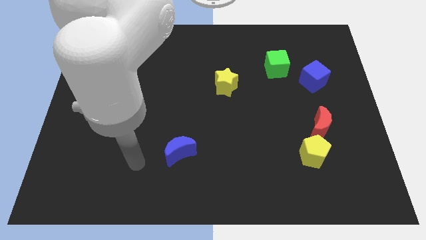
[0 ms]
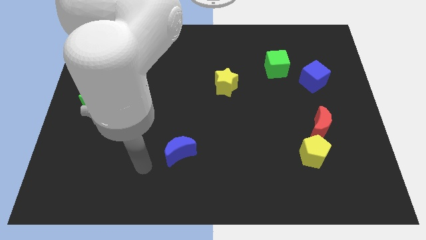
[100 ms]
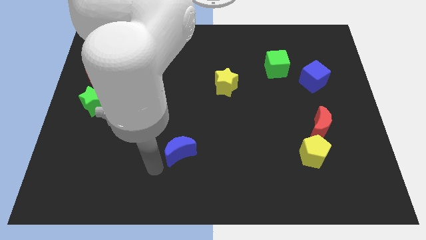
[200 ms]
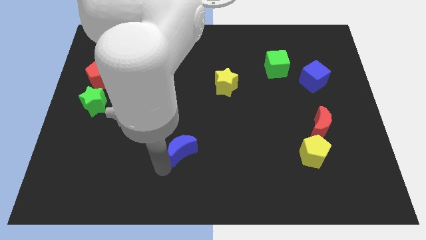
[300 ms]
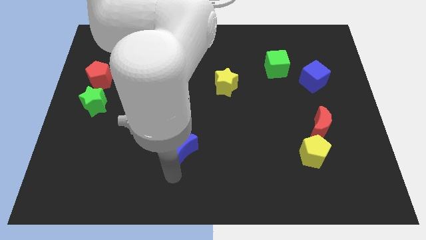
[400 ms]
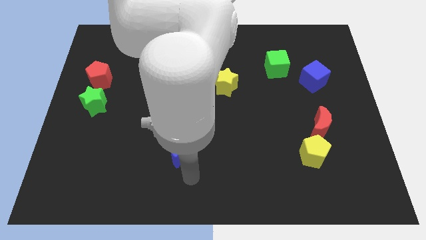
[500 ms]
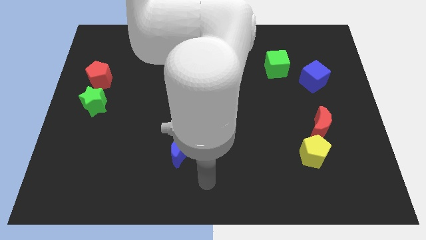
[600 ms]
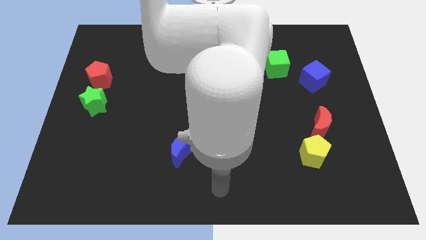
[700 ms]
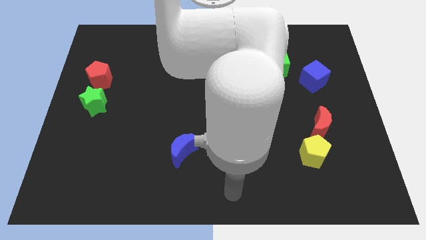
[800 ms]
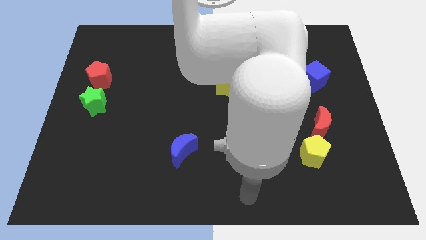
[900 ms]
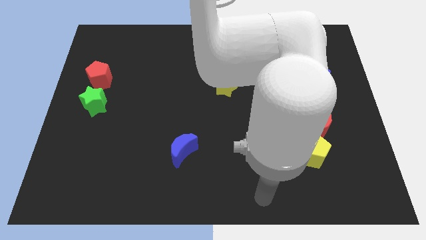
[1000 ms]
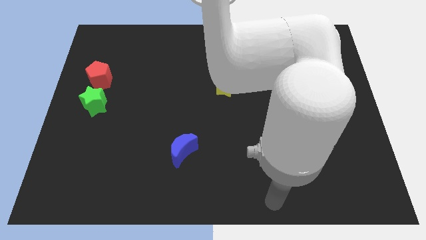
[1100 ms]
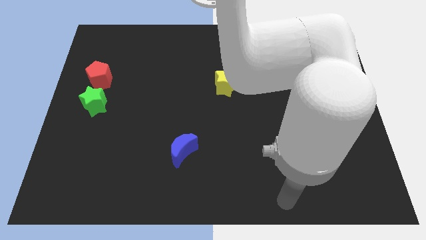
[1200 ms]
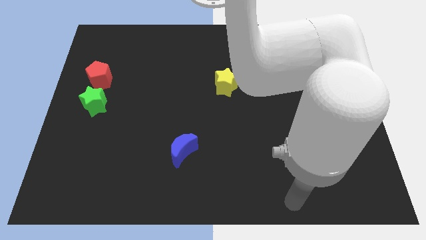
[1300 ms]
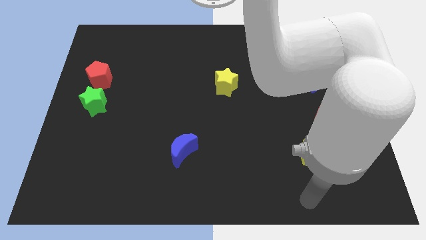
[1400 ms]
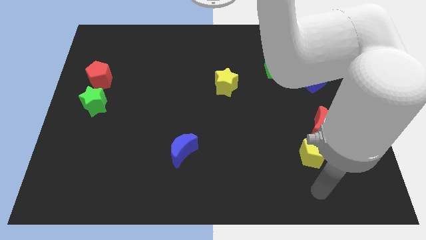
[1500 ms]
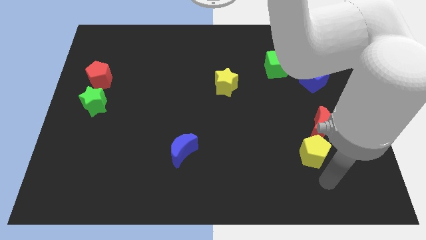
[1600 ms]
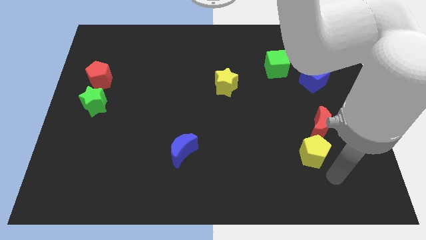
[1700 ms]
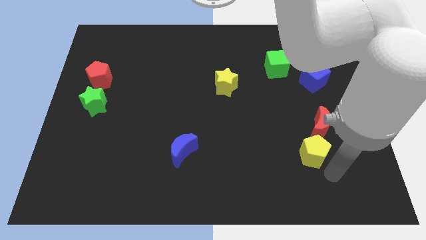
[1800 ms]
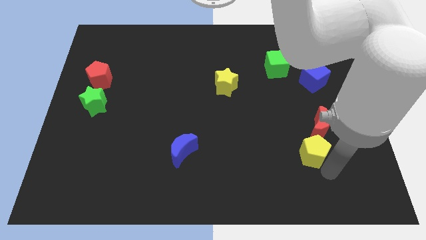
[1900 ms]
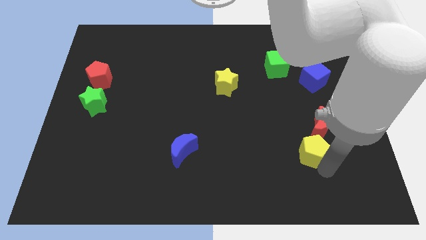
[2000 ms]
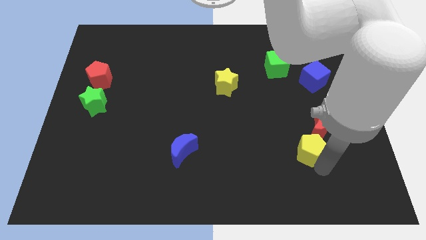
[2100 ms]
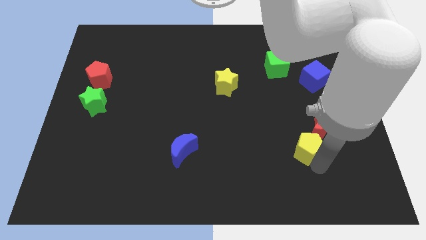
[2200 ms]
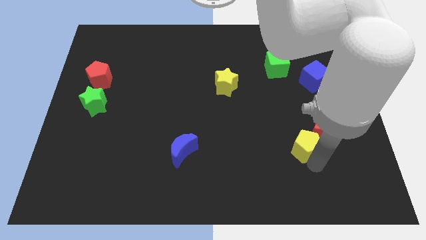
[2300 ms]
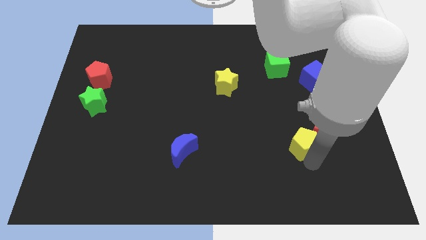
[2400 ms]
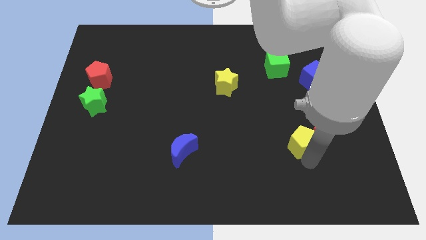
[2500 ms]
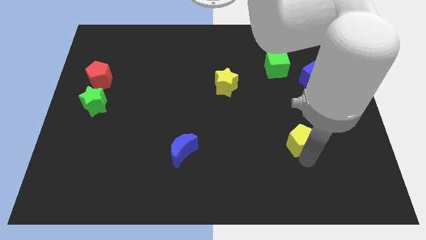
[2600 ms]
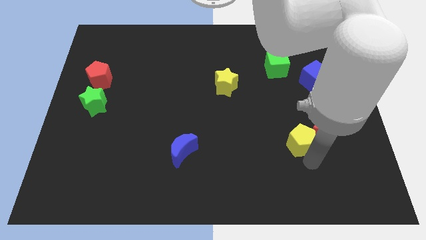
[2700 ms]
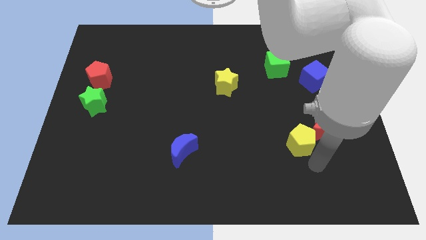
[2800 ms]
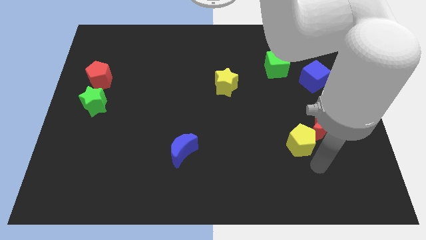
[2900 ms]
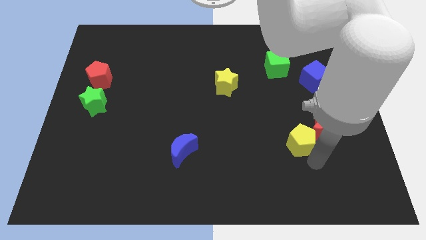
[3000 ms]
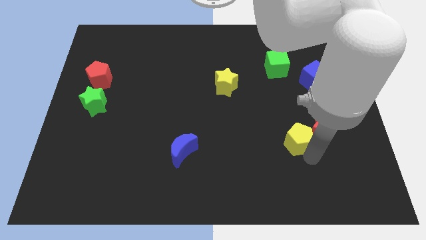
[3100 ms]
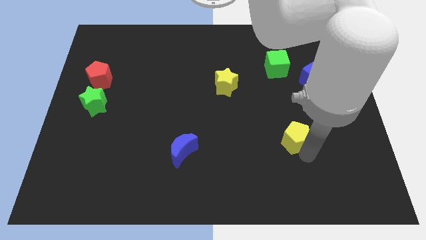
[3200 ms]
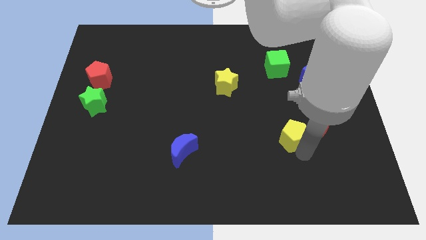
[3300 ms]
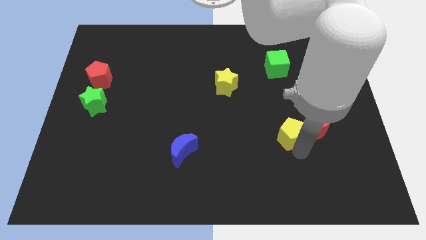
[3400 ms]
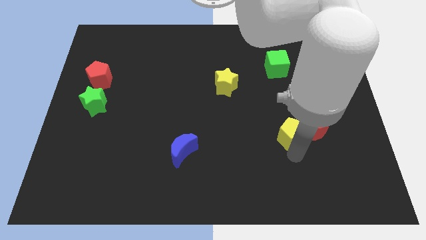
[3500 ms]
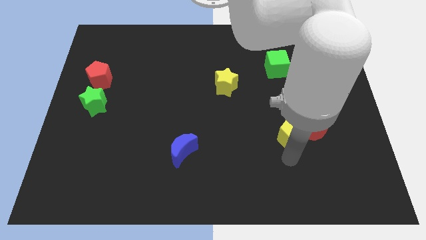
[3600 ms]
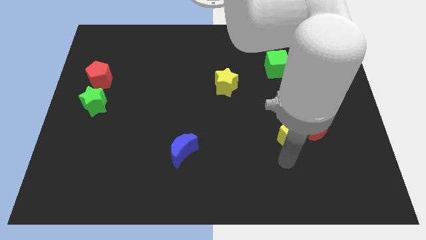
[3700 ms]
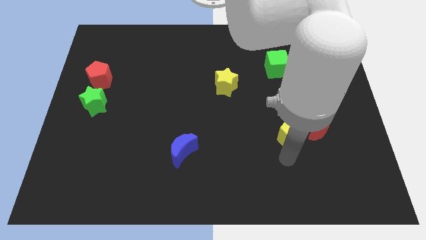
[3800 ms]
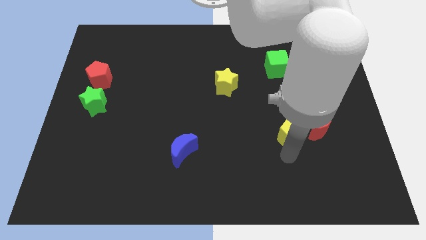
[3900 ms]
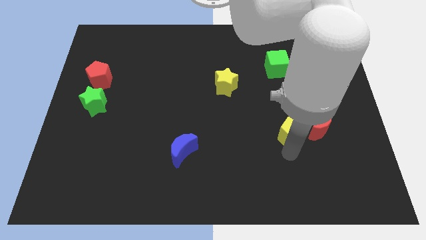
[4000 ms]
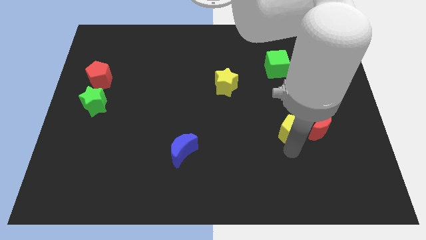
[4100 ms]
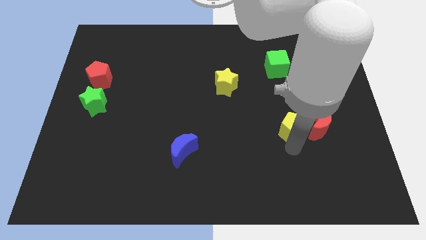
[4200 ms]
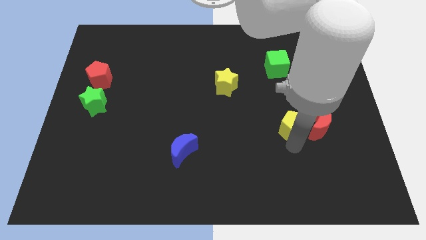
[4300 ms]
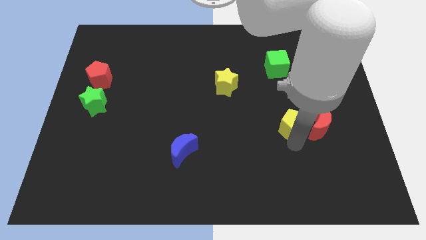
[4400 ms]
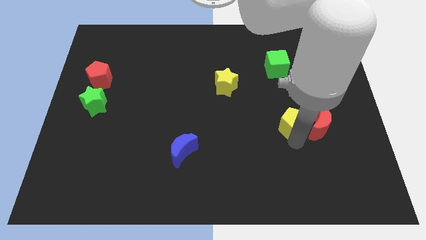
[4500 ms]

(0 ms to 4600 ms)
slide the yellow pentagon upwards a little bit

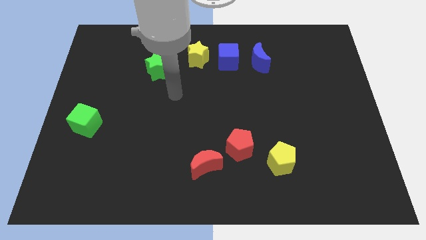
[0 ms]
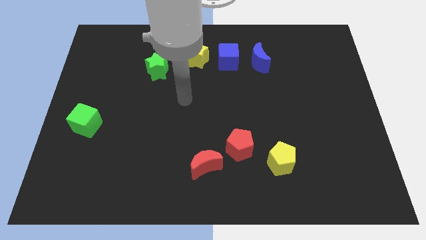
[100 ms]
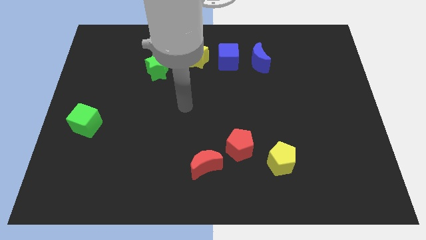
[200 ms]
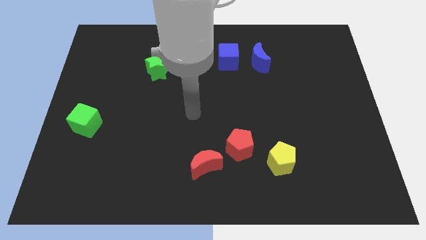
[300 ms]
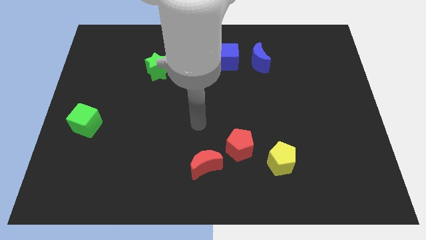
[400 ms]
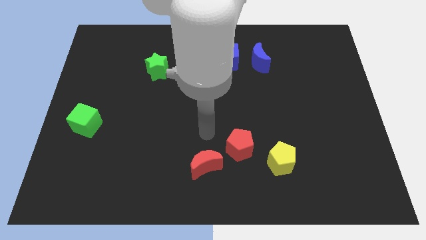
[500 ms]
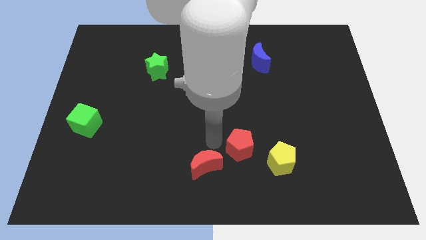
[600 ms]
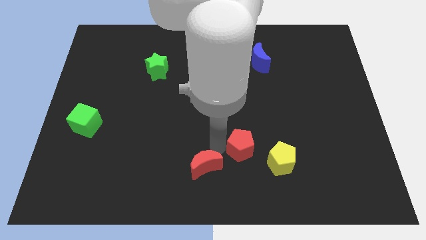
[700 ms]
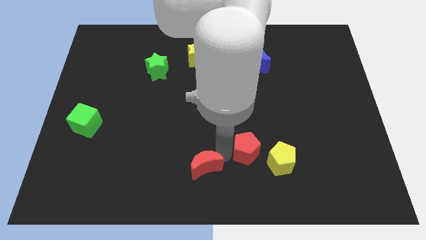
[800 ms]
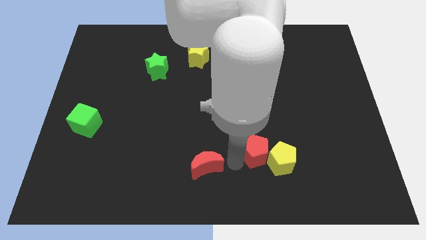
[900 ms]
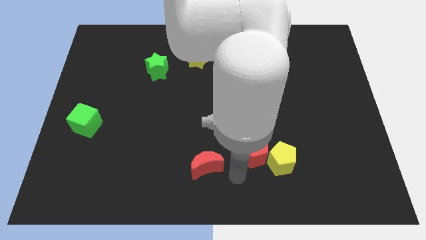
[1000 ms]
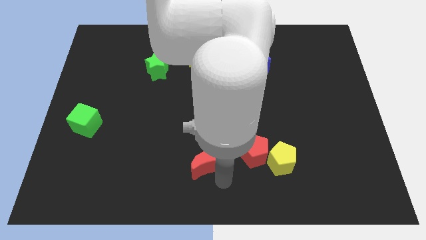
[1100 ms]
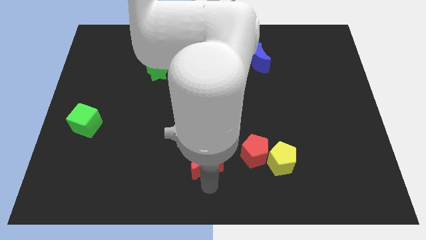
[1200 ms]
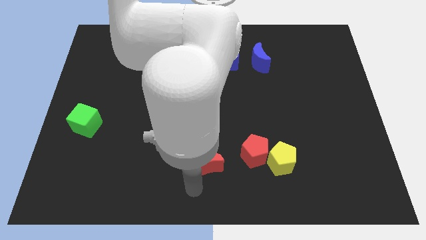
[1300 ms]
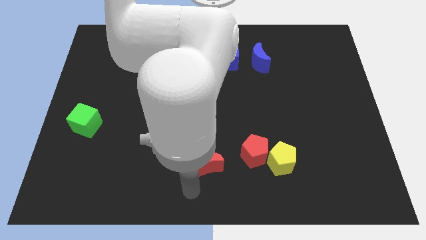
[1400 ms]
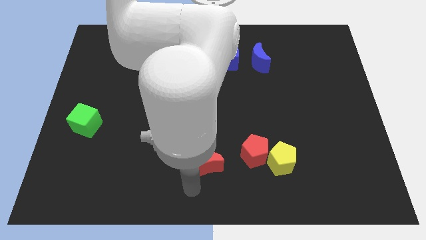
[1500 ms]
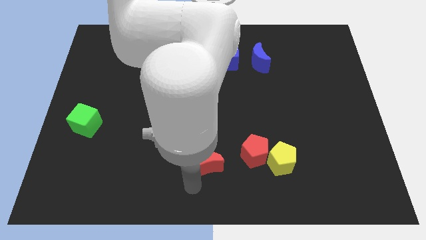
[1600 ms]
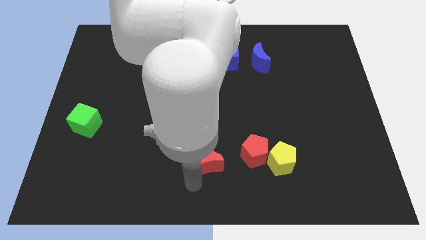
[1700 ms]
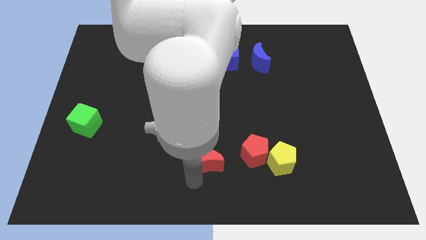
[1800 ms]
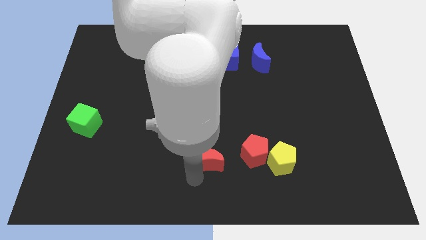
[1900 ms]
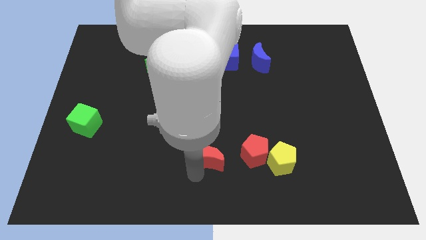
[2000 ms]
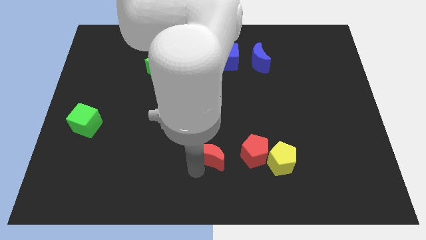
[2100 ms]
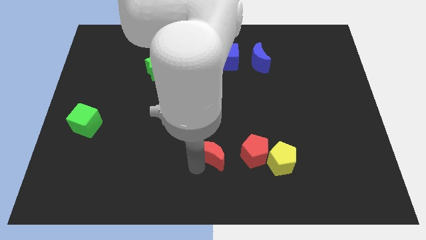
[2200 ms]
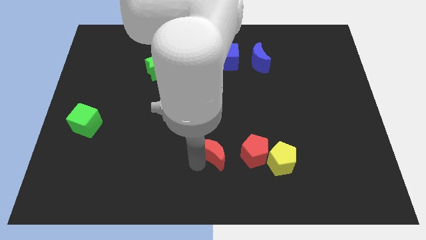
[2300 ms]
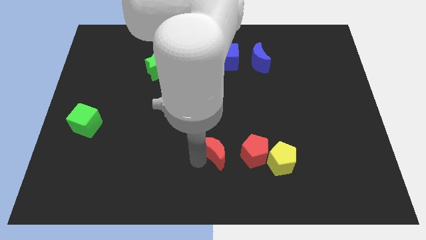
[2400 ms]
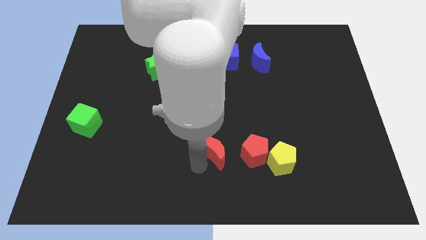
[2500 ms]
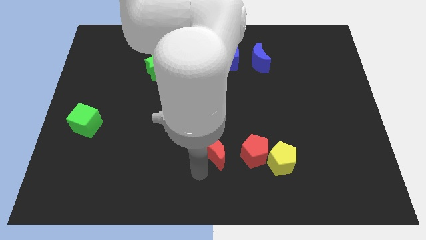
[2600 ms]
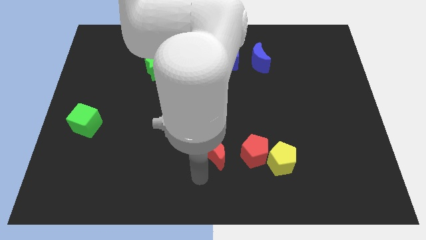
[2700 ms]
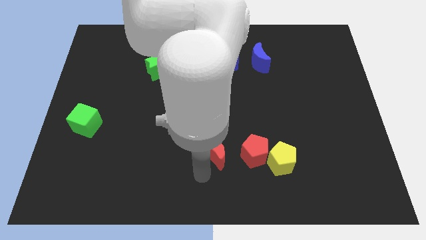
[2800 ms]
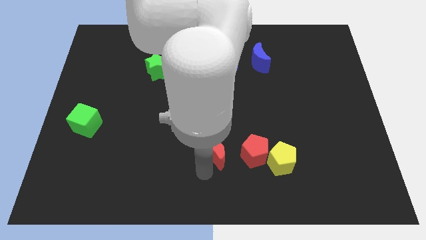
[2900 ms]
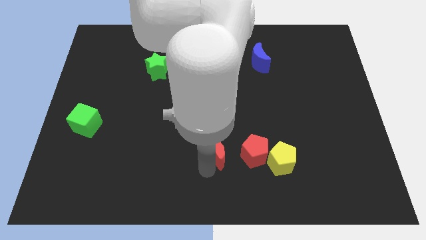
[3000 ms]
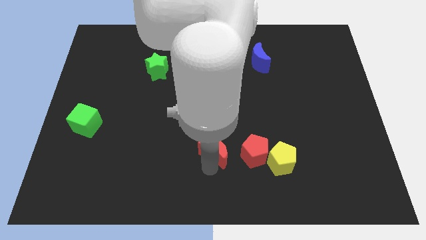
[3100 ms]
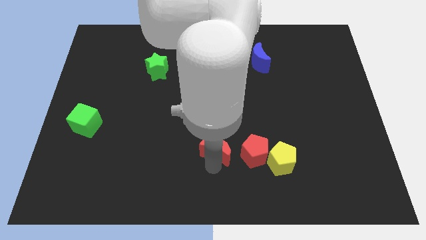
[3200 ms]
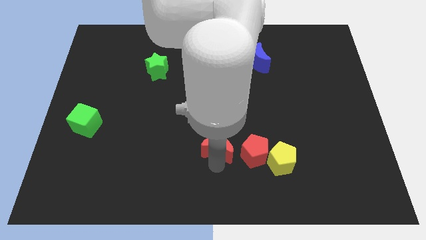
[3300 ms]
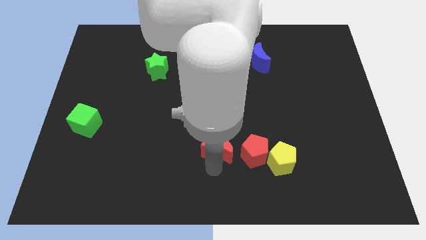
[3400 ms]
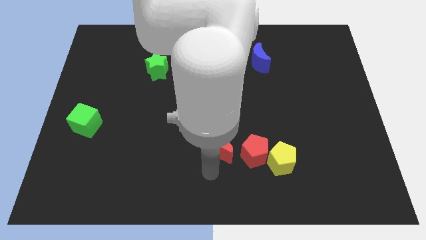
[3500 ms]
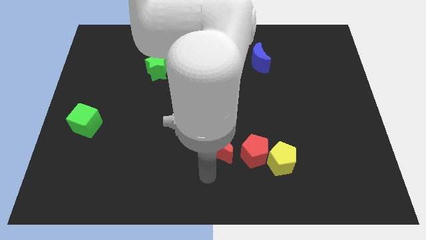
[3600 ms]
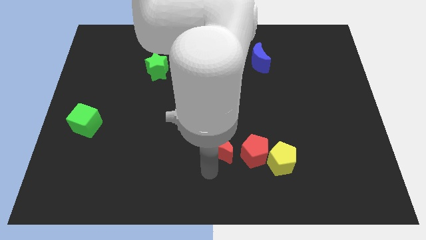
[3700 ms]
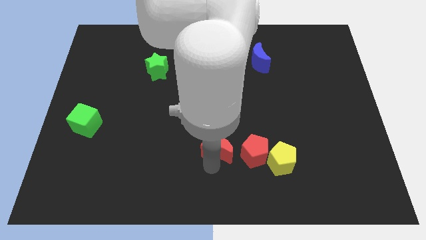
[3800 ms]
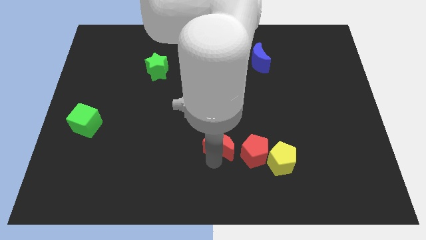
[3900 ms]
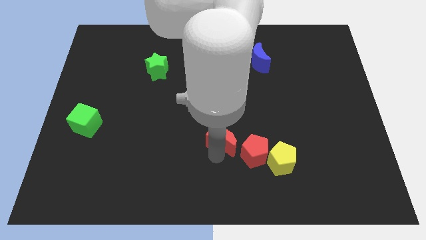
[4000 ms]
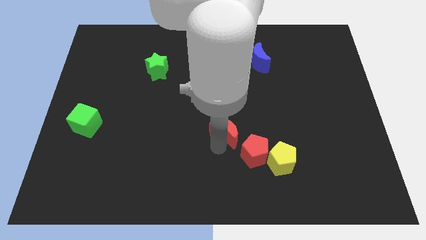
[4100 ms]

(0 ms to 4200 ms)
push the red moon a bit upwards and then to the right
